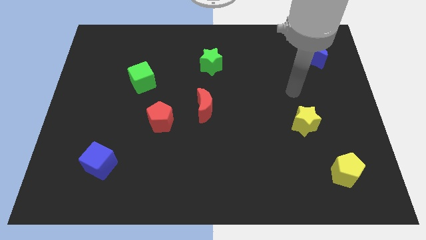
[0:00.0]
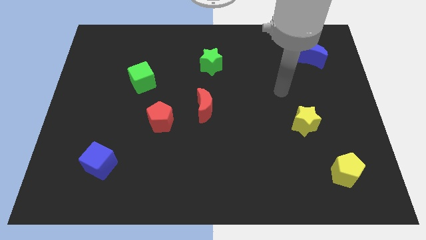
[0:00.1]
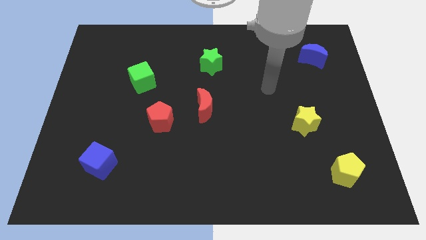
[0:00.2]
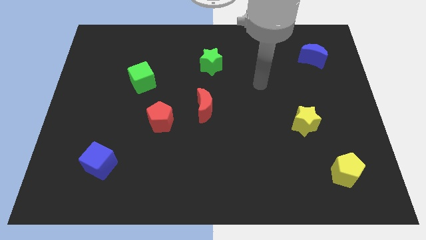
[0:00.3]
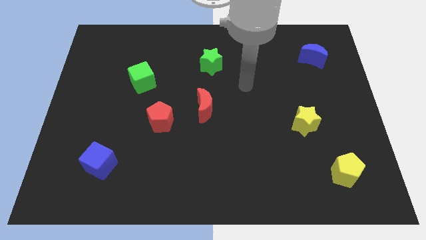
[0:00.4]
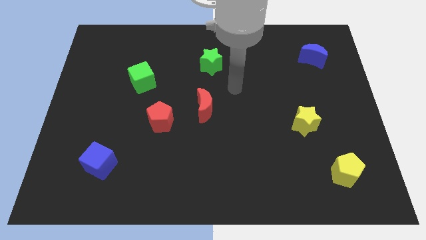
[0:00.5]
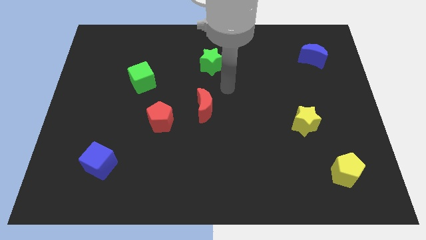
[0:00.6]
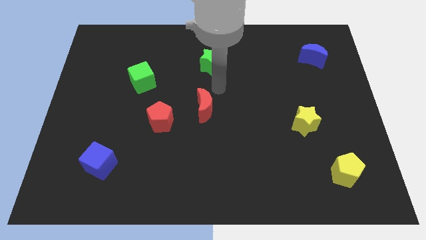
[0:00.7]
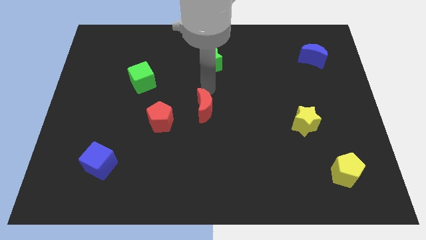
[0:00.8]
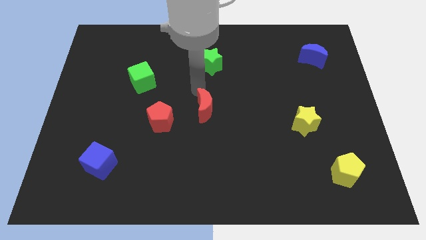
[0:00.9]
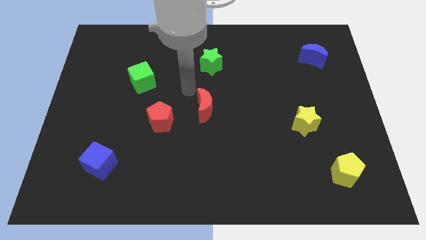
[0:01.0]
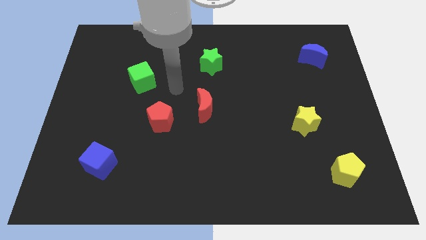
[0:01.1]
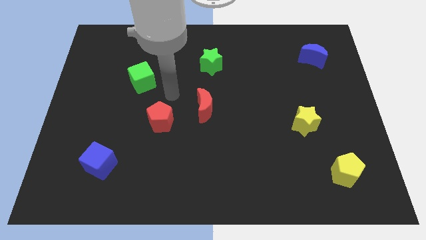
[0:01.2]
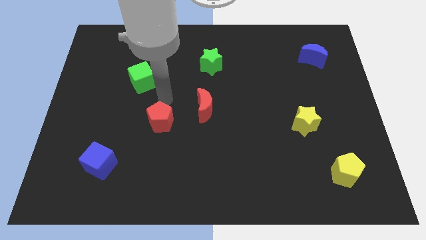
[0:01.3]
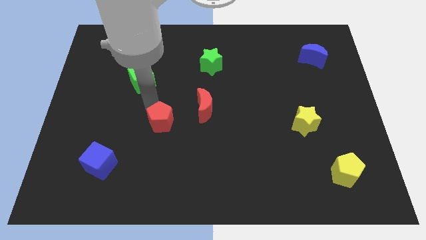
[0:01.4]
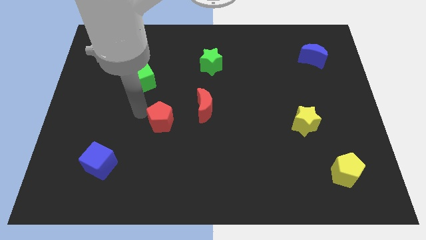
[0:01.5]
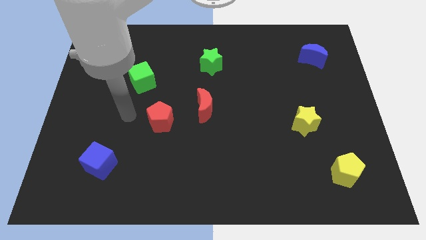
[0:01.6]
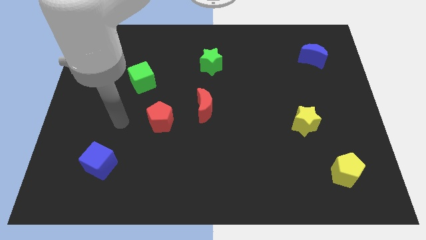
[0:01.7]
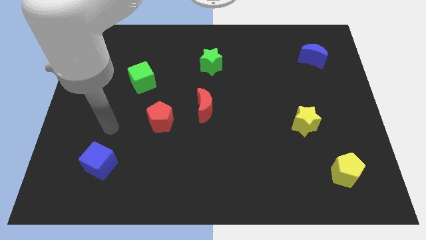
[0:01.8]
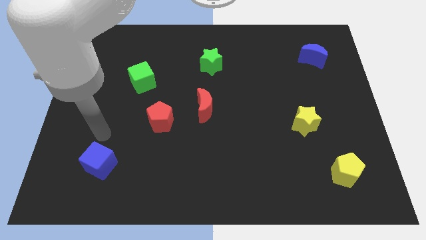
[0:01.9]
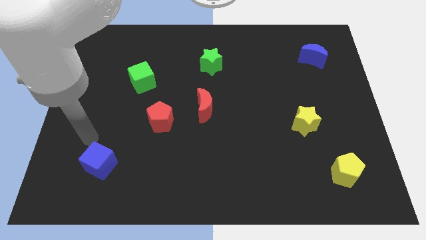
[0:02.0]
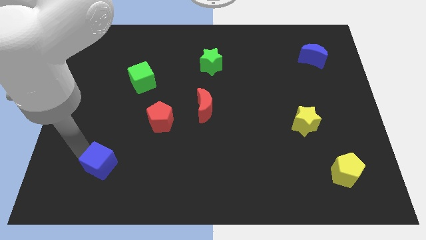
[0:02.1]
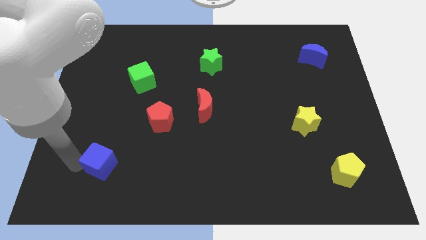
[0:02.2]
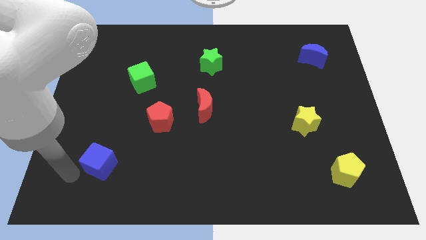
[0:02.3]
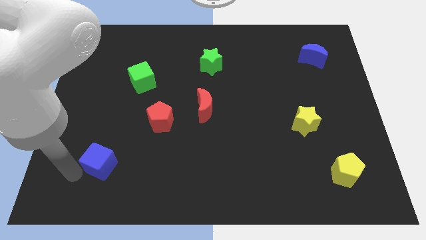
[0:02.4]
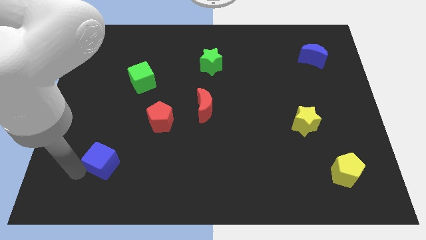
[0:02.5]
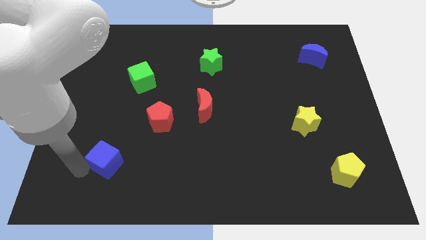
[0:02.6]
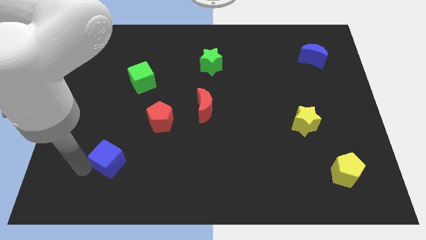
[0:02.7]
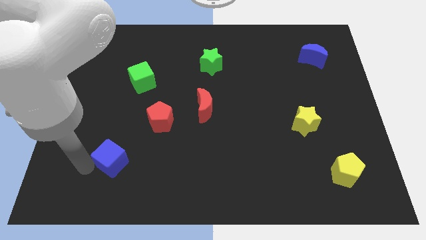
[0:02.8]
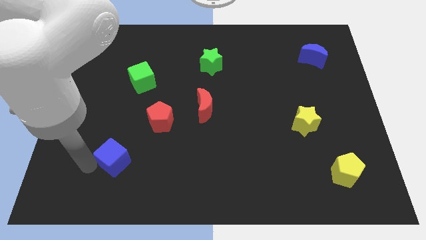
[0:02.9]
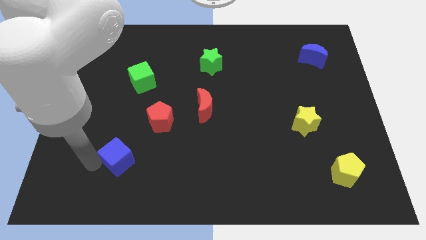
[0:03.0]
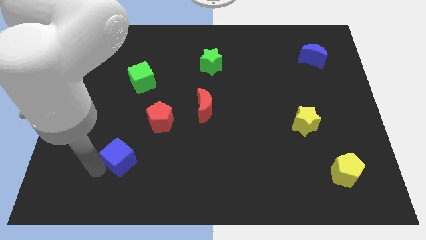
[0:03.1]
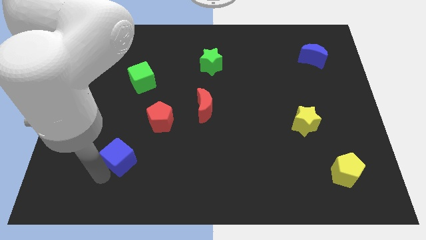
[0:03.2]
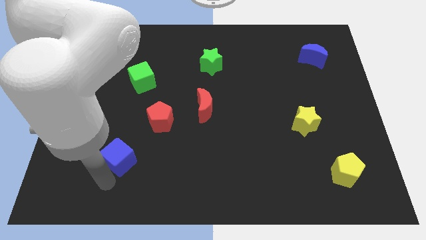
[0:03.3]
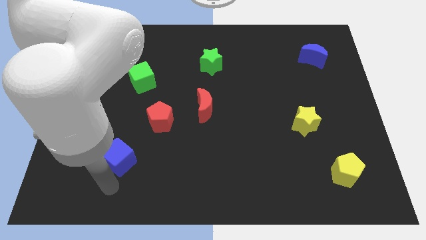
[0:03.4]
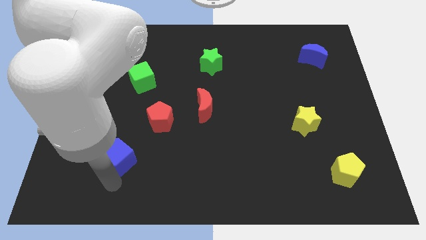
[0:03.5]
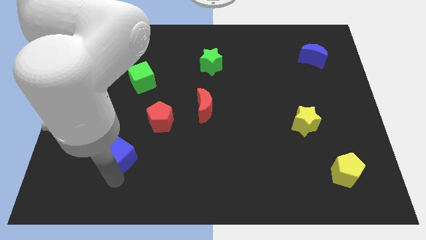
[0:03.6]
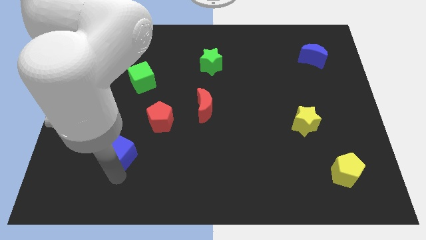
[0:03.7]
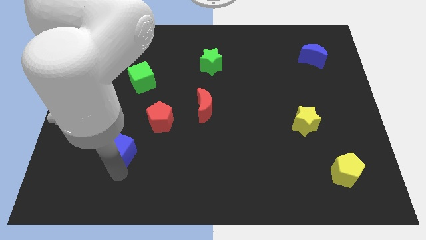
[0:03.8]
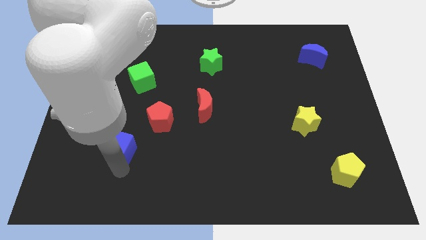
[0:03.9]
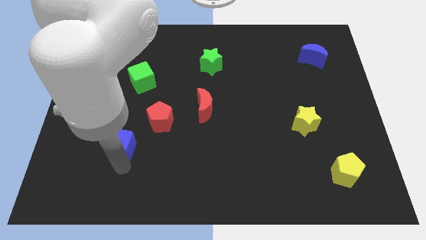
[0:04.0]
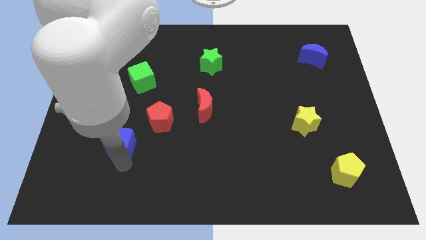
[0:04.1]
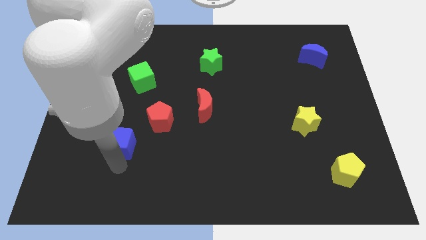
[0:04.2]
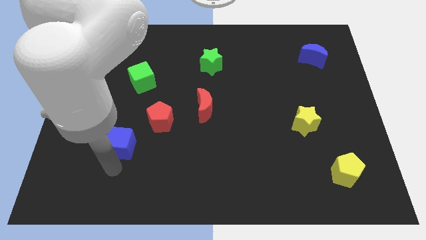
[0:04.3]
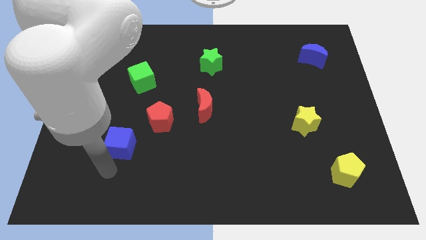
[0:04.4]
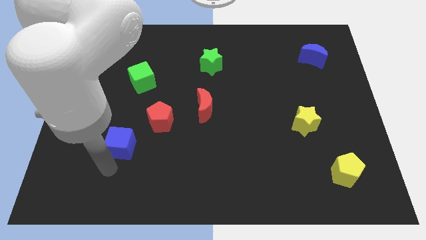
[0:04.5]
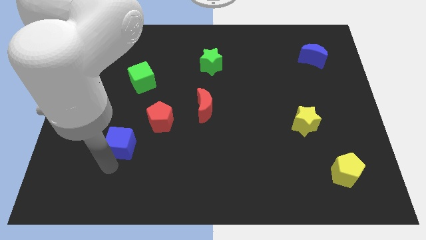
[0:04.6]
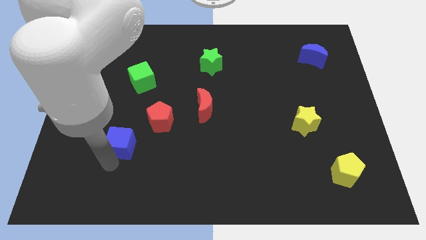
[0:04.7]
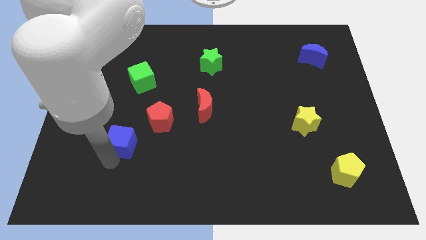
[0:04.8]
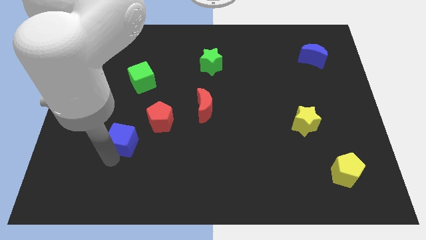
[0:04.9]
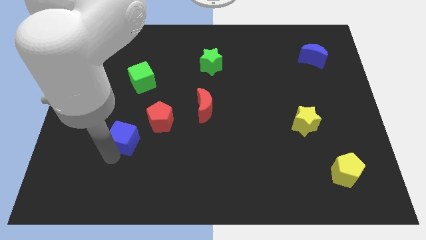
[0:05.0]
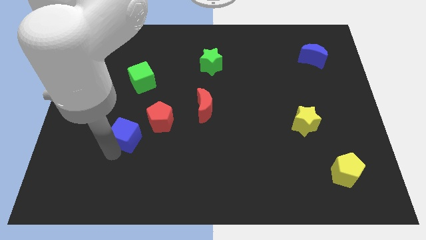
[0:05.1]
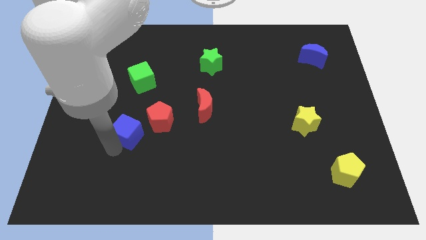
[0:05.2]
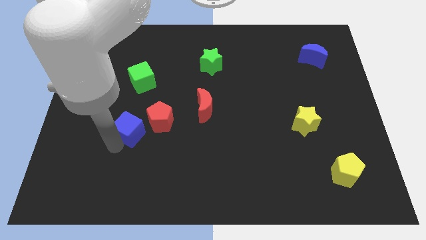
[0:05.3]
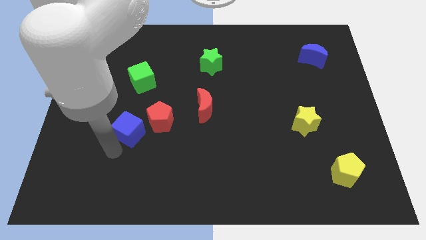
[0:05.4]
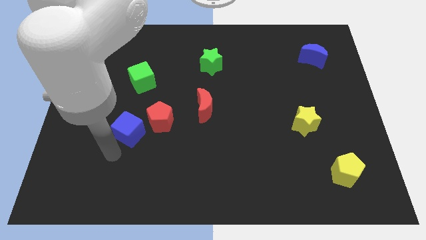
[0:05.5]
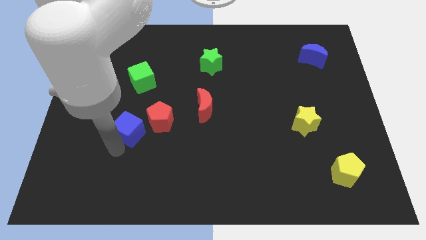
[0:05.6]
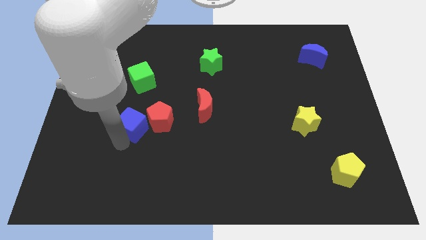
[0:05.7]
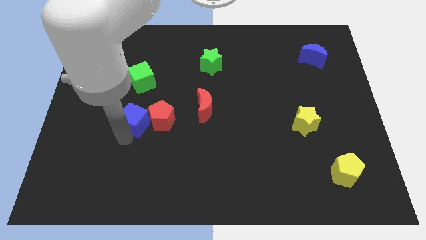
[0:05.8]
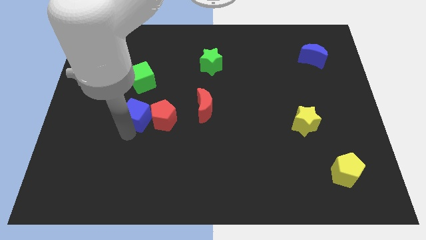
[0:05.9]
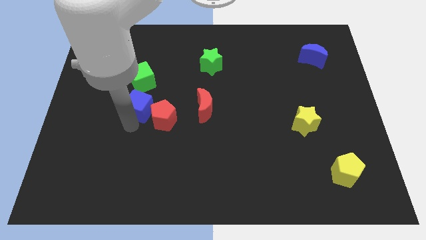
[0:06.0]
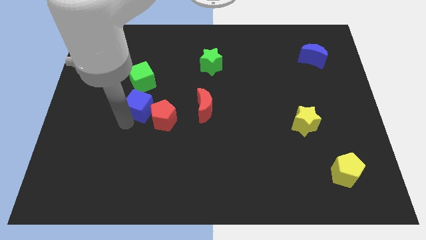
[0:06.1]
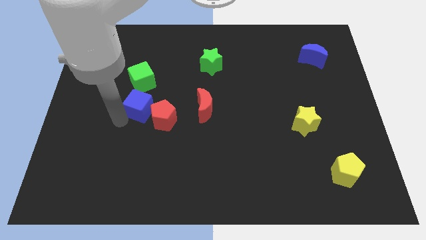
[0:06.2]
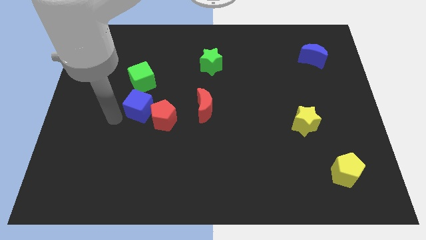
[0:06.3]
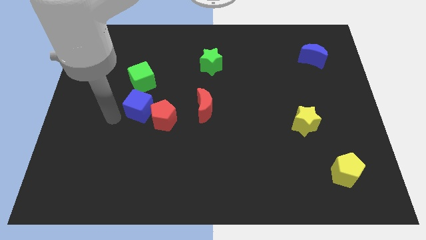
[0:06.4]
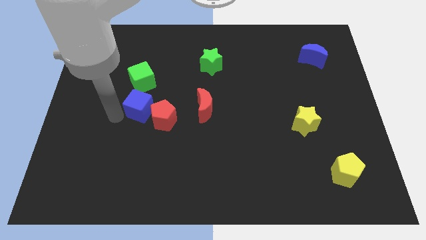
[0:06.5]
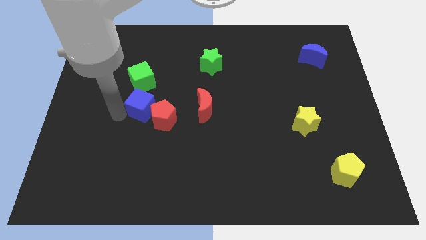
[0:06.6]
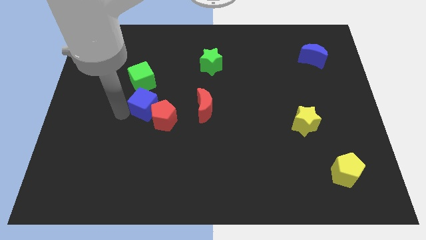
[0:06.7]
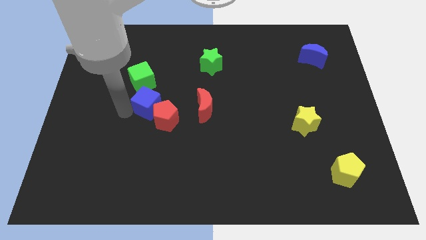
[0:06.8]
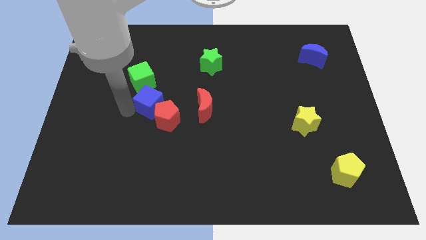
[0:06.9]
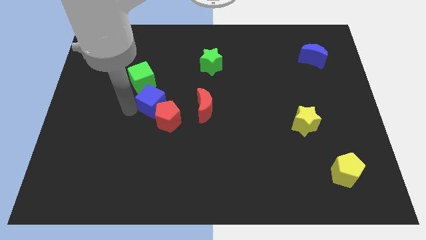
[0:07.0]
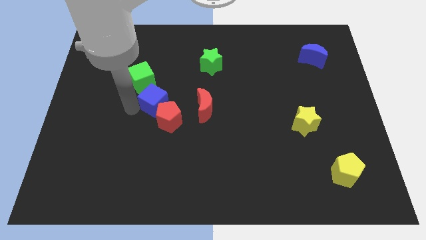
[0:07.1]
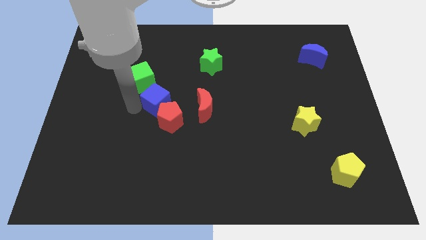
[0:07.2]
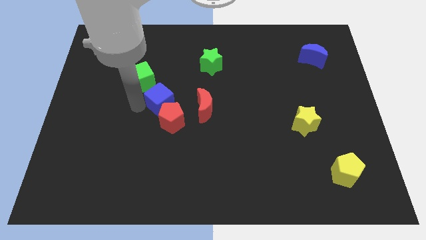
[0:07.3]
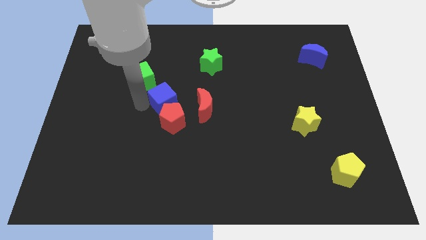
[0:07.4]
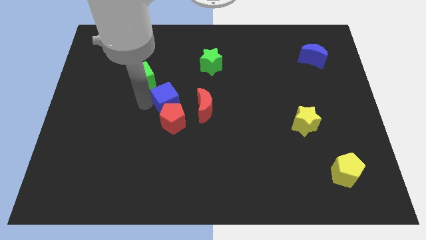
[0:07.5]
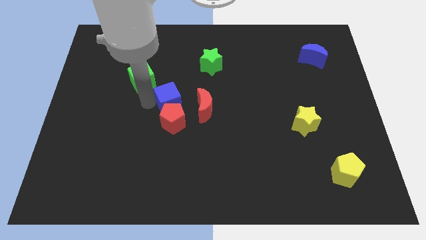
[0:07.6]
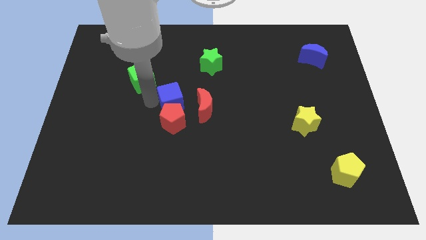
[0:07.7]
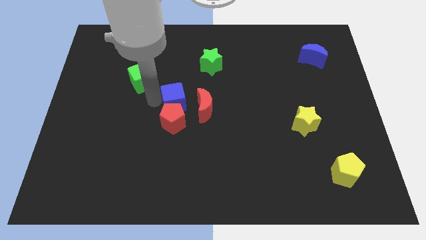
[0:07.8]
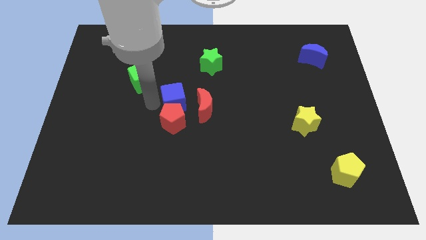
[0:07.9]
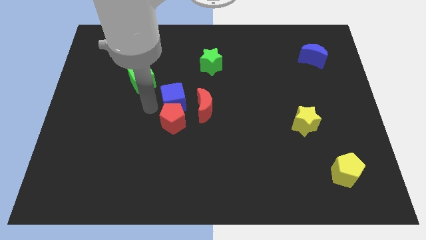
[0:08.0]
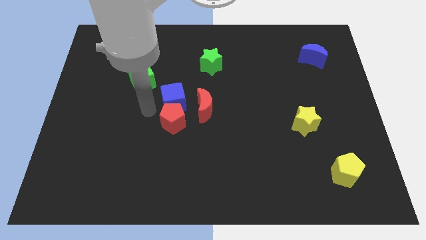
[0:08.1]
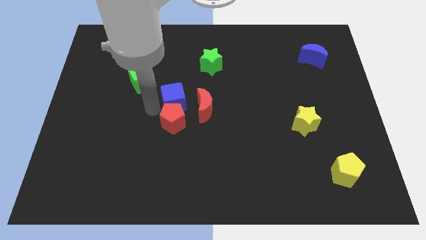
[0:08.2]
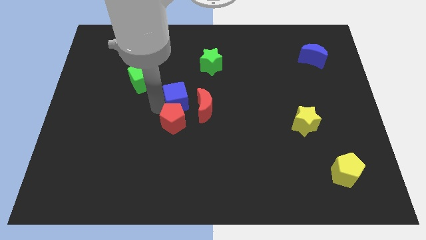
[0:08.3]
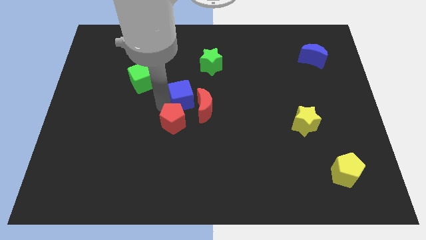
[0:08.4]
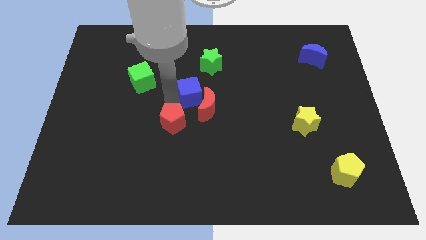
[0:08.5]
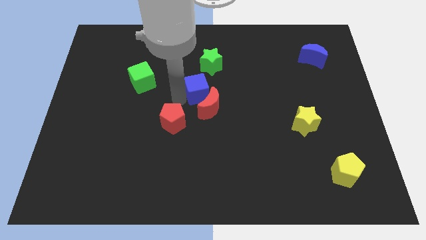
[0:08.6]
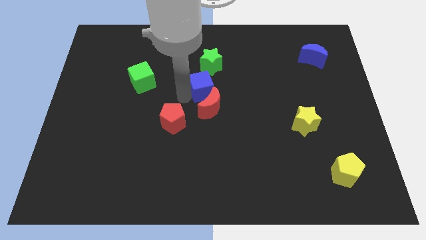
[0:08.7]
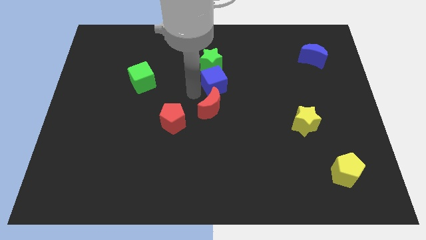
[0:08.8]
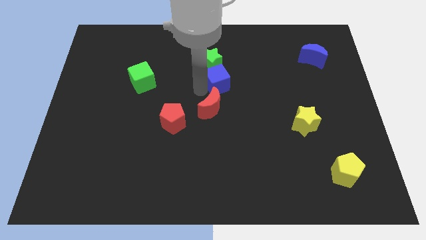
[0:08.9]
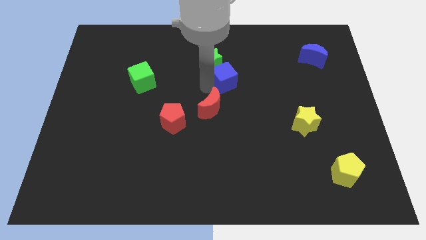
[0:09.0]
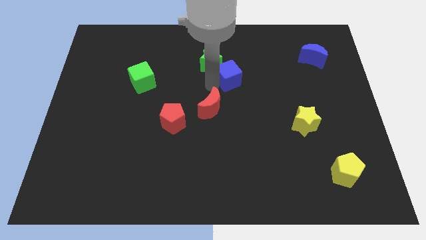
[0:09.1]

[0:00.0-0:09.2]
slide the blue cube to the right of the green star
